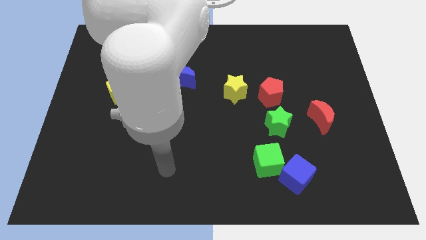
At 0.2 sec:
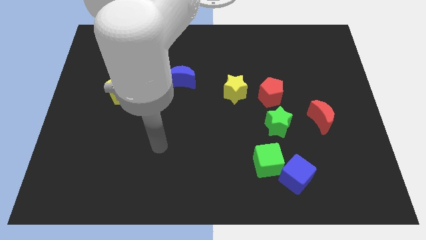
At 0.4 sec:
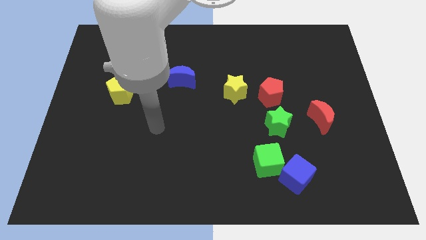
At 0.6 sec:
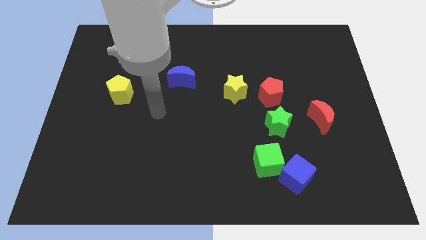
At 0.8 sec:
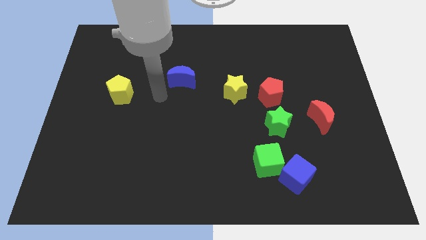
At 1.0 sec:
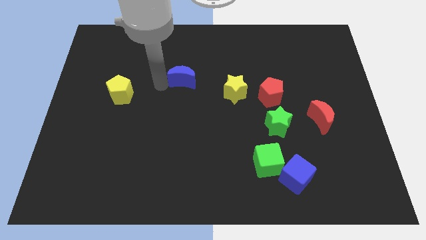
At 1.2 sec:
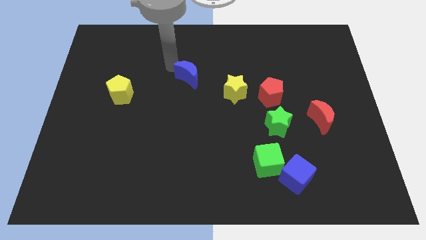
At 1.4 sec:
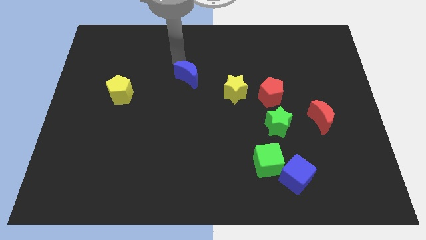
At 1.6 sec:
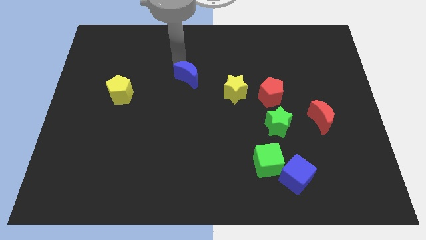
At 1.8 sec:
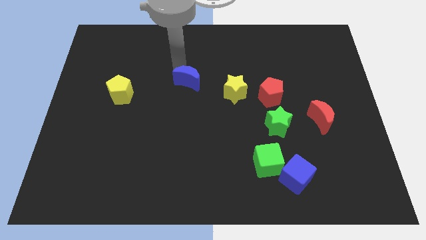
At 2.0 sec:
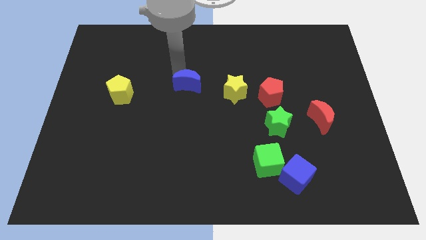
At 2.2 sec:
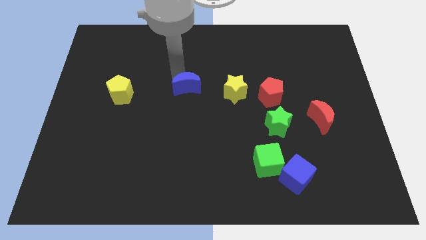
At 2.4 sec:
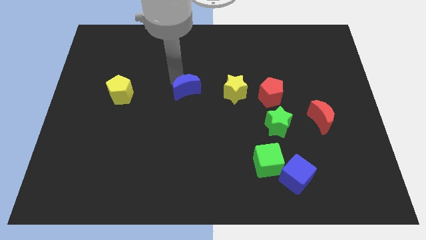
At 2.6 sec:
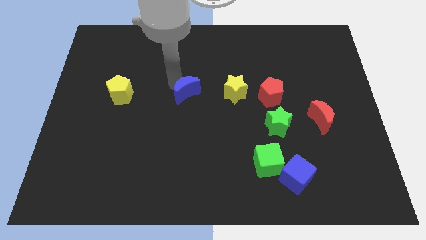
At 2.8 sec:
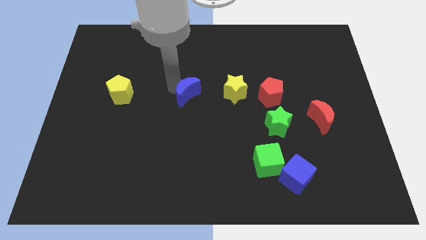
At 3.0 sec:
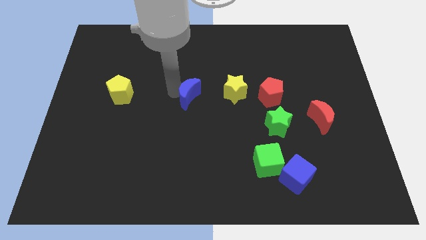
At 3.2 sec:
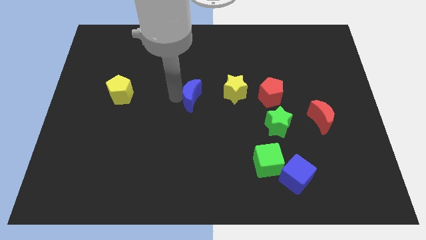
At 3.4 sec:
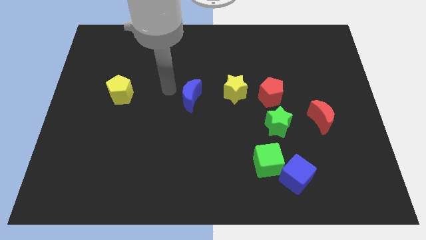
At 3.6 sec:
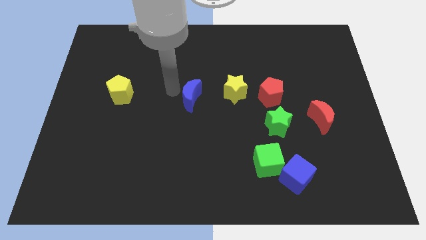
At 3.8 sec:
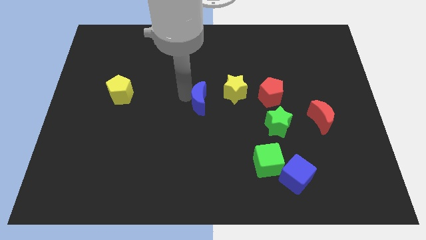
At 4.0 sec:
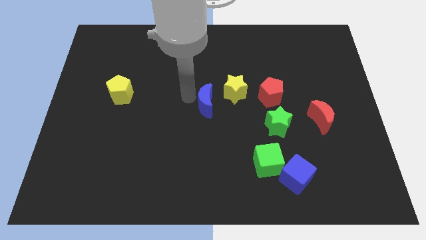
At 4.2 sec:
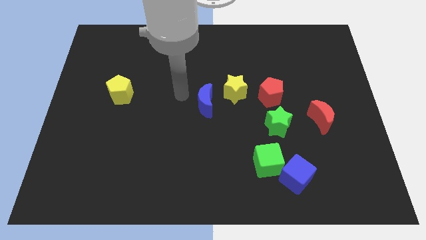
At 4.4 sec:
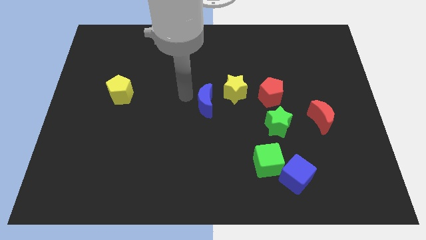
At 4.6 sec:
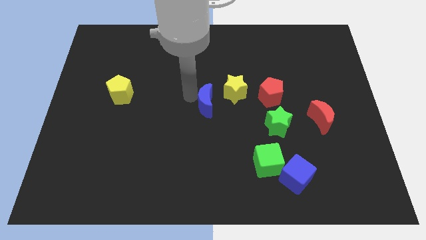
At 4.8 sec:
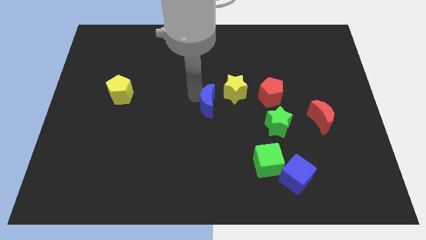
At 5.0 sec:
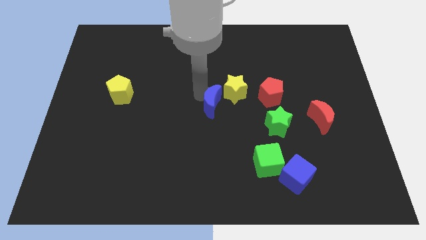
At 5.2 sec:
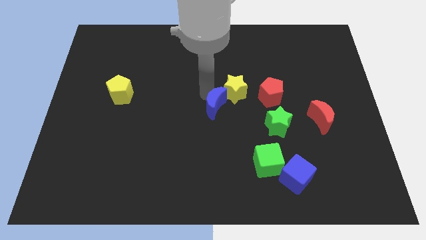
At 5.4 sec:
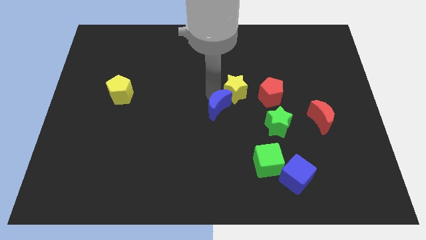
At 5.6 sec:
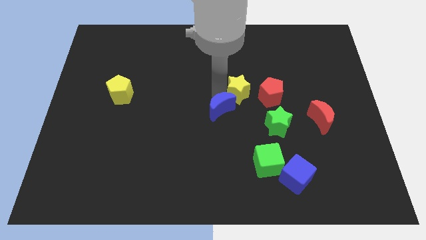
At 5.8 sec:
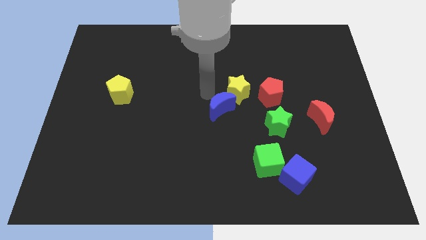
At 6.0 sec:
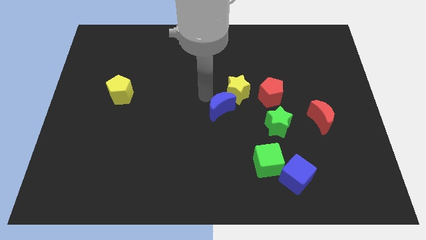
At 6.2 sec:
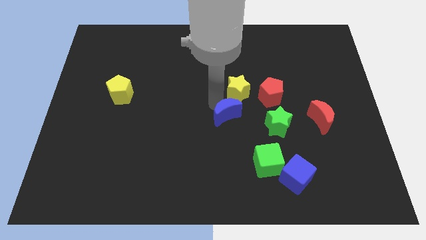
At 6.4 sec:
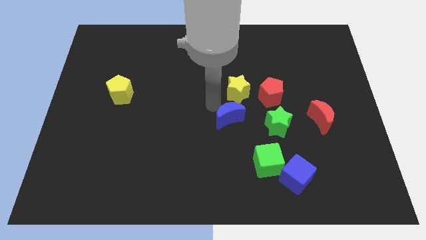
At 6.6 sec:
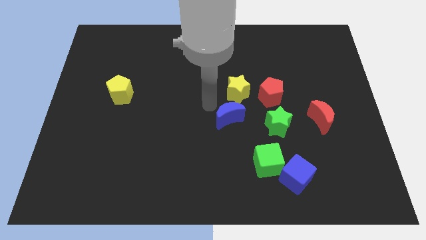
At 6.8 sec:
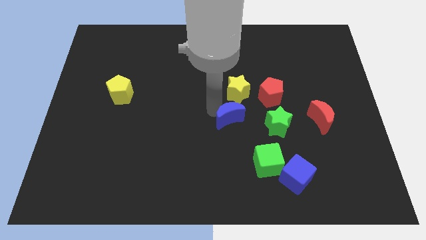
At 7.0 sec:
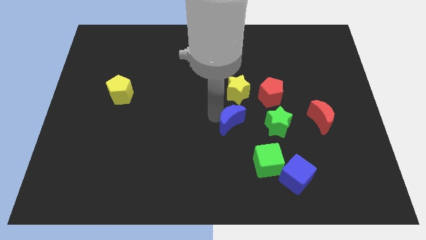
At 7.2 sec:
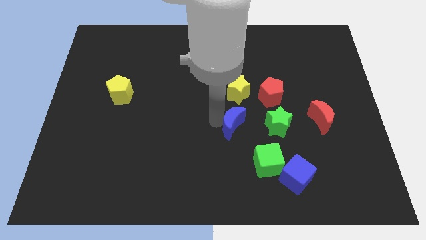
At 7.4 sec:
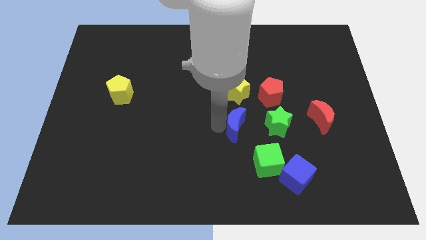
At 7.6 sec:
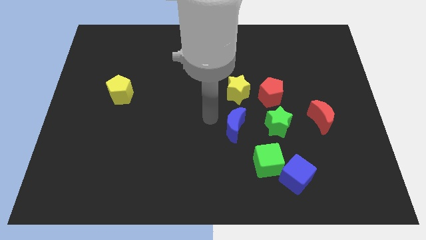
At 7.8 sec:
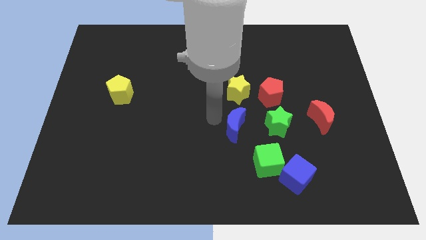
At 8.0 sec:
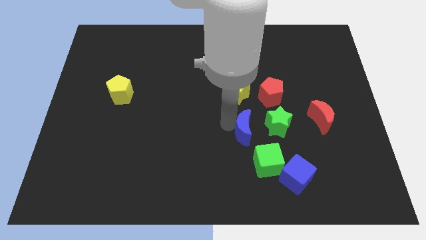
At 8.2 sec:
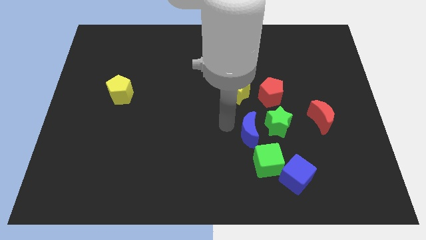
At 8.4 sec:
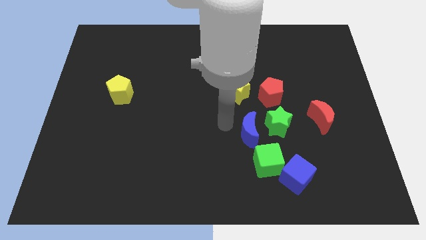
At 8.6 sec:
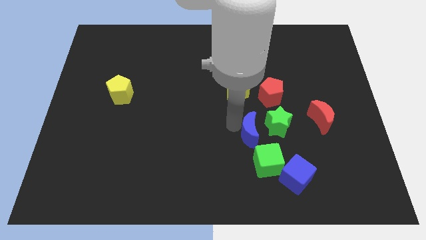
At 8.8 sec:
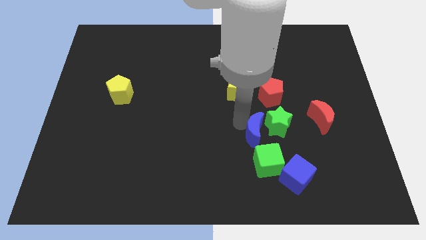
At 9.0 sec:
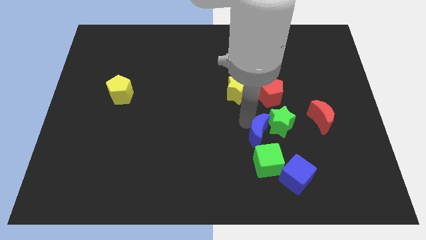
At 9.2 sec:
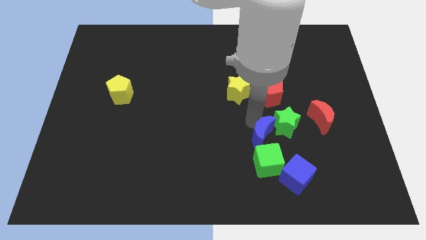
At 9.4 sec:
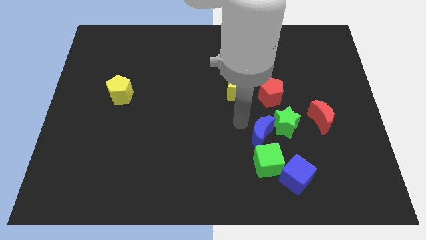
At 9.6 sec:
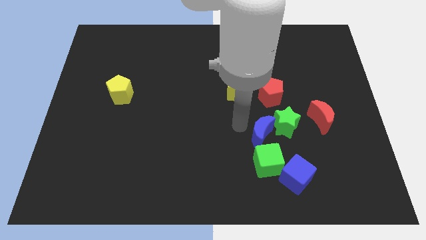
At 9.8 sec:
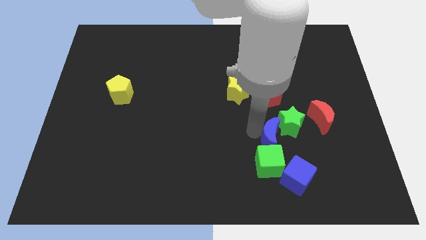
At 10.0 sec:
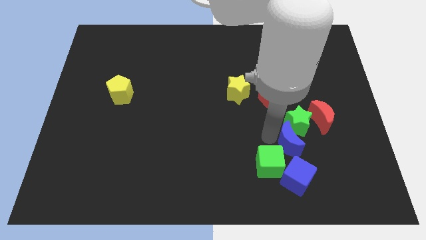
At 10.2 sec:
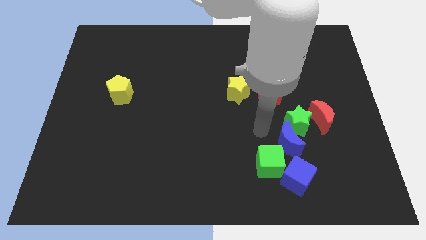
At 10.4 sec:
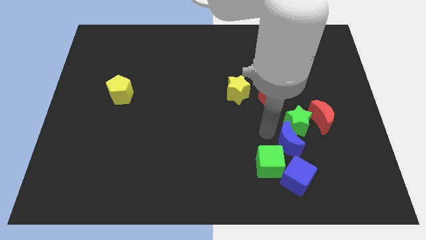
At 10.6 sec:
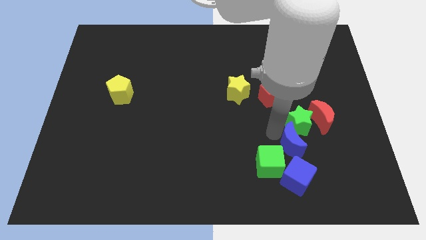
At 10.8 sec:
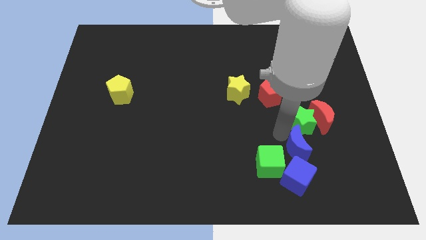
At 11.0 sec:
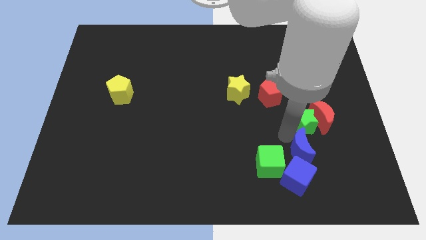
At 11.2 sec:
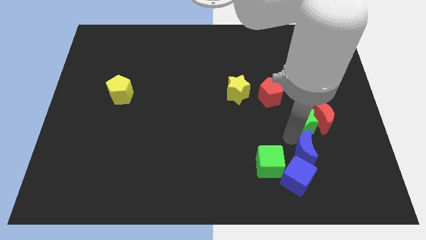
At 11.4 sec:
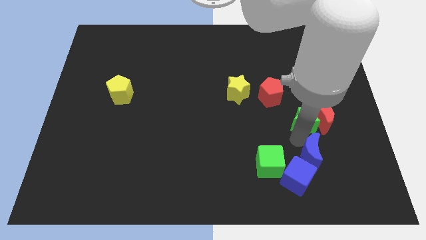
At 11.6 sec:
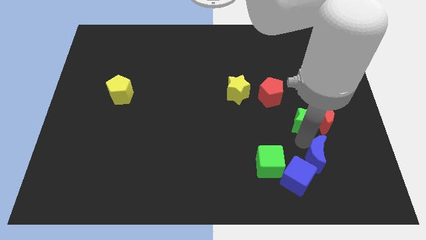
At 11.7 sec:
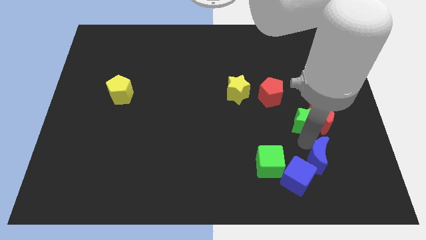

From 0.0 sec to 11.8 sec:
put the blue moon just right of the blue cube

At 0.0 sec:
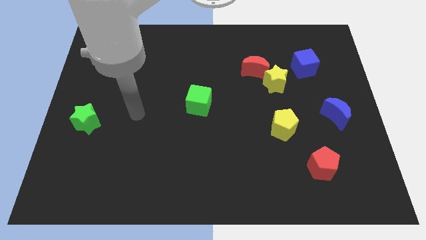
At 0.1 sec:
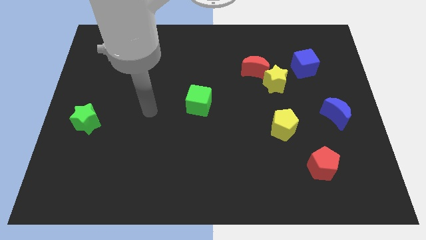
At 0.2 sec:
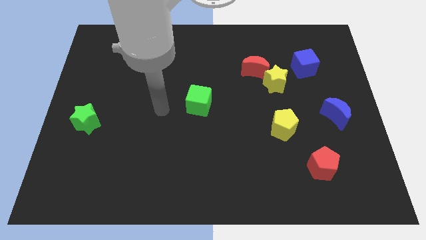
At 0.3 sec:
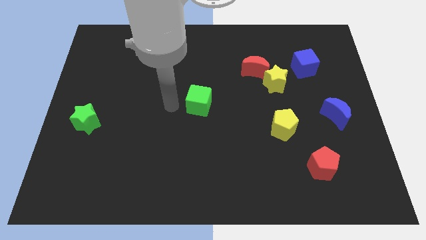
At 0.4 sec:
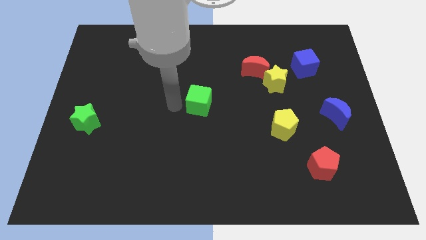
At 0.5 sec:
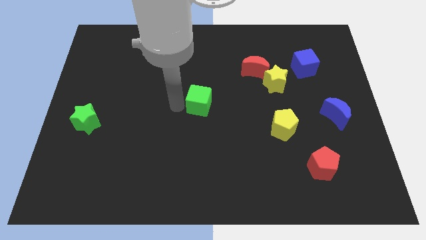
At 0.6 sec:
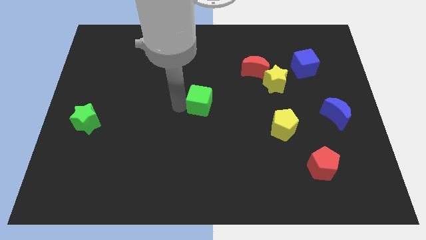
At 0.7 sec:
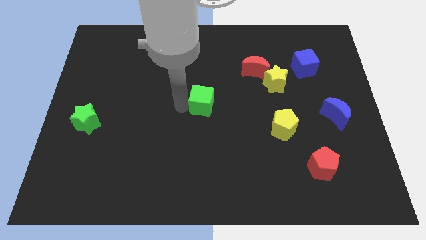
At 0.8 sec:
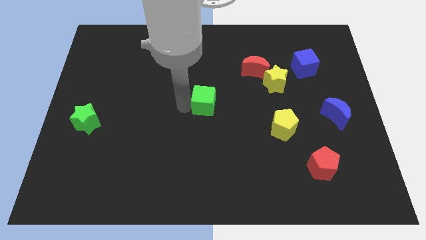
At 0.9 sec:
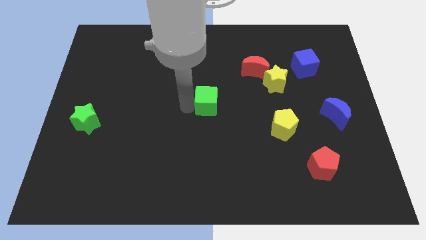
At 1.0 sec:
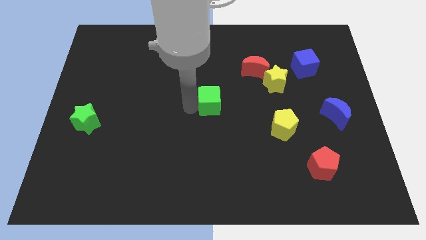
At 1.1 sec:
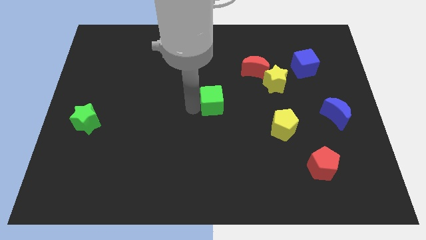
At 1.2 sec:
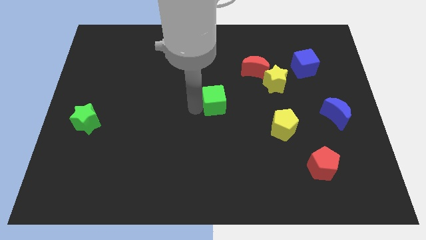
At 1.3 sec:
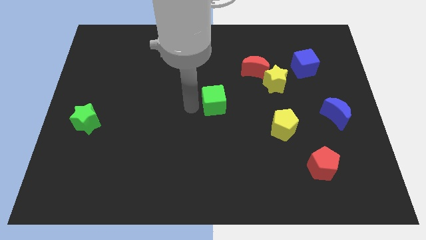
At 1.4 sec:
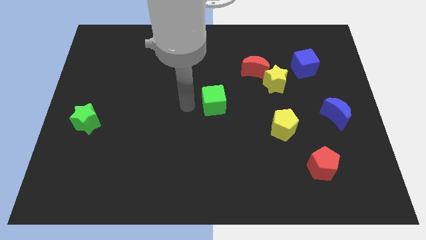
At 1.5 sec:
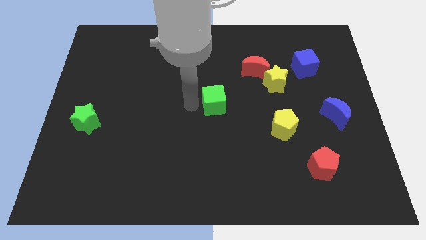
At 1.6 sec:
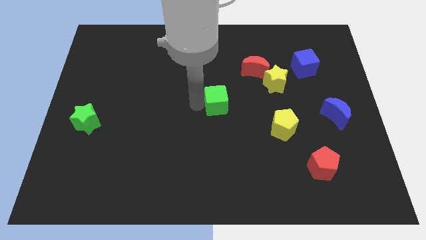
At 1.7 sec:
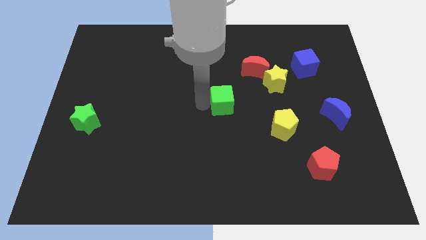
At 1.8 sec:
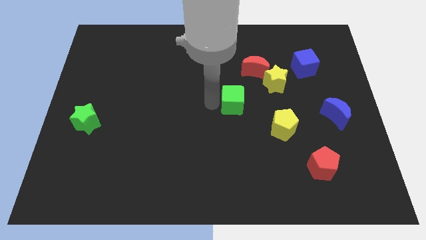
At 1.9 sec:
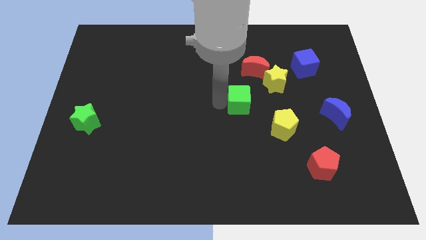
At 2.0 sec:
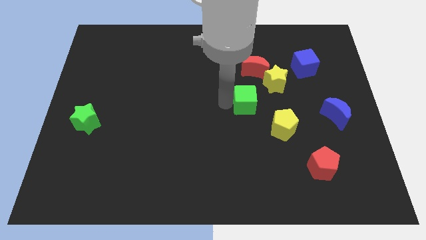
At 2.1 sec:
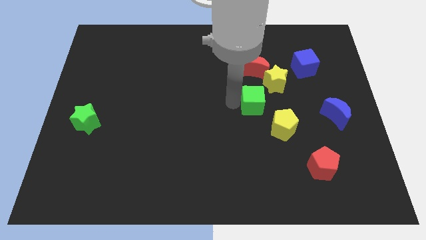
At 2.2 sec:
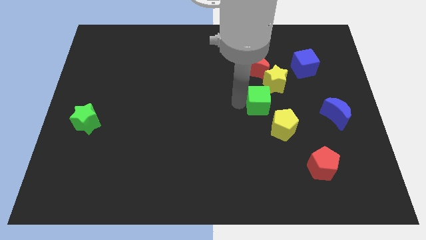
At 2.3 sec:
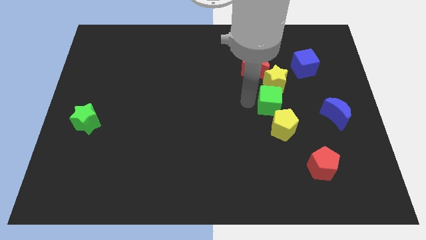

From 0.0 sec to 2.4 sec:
push the green cube left of the blue moon
